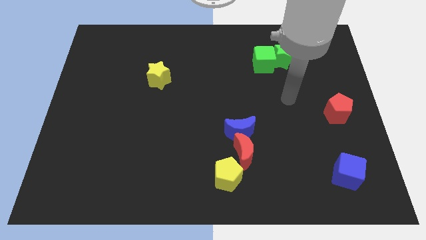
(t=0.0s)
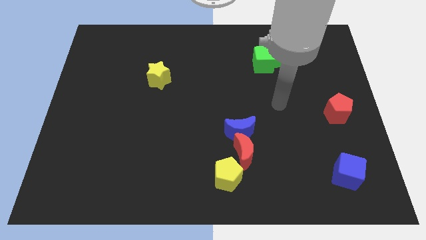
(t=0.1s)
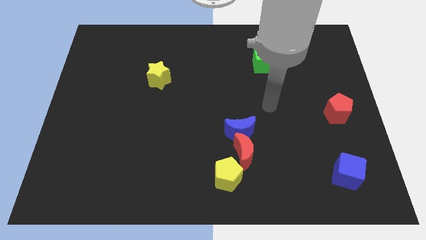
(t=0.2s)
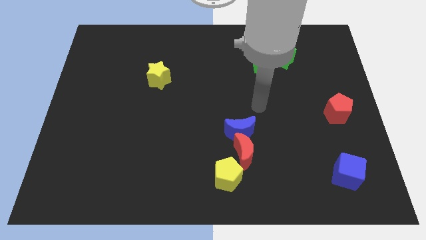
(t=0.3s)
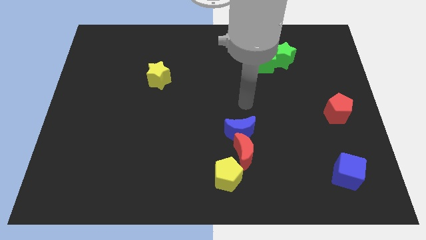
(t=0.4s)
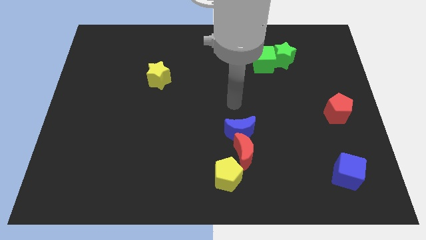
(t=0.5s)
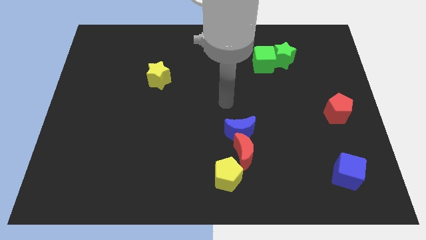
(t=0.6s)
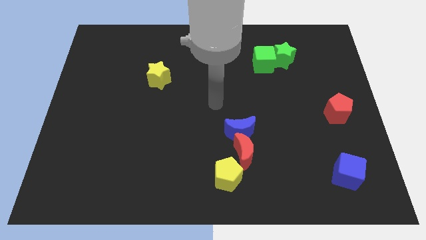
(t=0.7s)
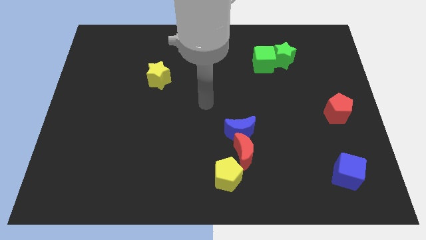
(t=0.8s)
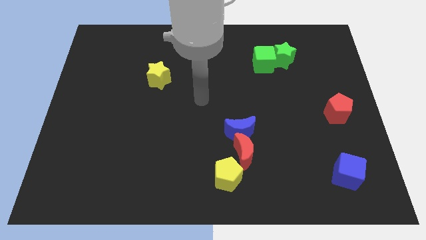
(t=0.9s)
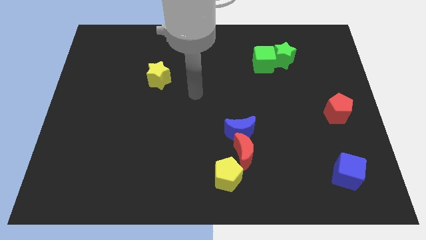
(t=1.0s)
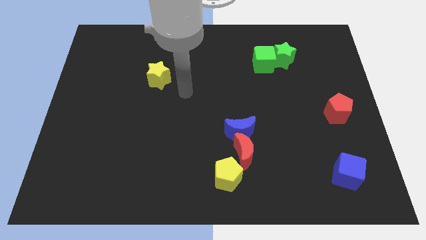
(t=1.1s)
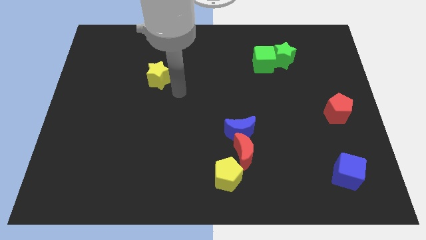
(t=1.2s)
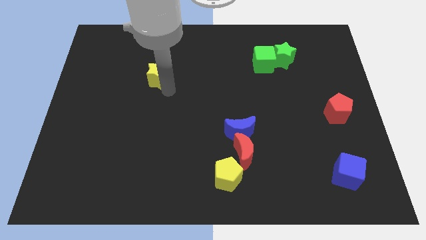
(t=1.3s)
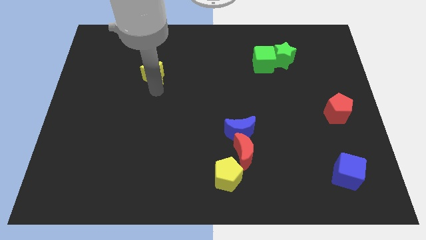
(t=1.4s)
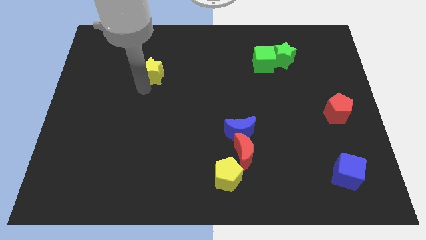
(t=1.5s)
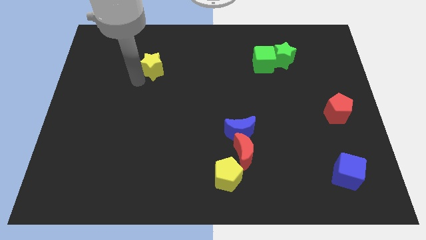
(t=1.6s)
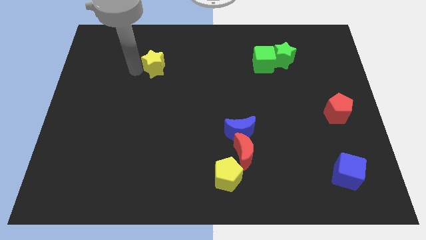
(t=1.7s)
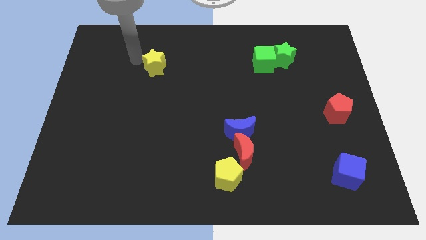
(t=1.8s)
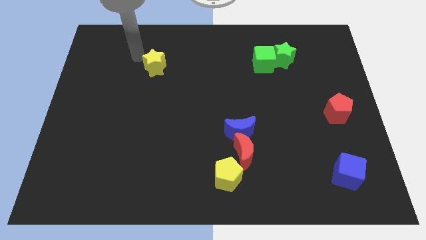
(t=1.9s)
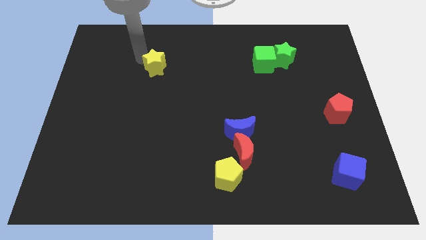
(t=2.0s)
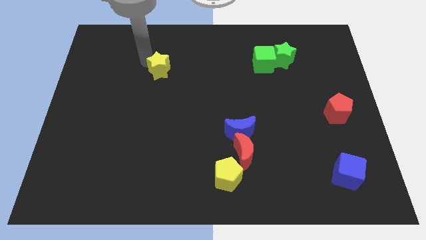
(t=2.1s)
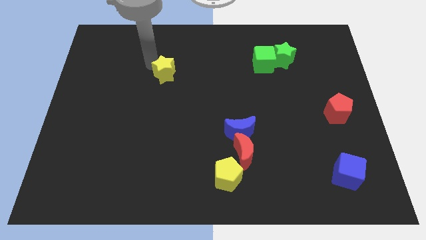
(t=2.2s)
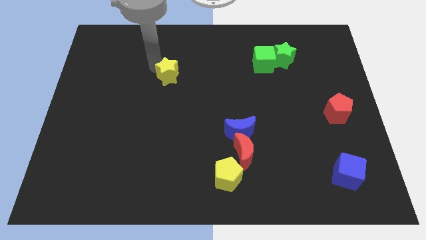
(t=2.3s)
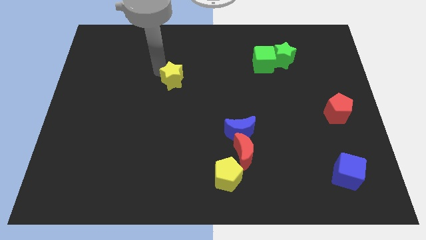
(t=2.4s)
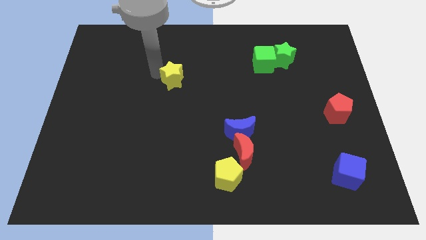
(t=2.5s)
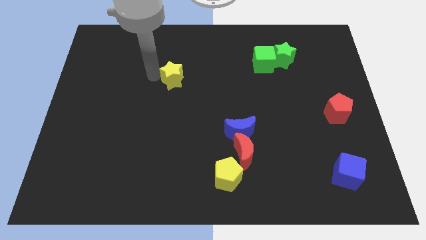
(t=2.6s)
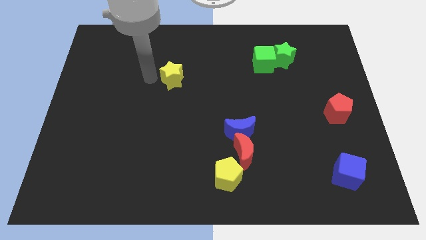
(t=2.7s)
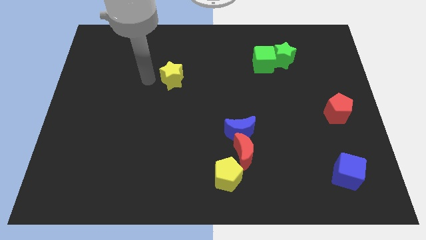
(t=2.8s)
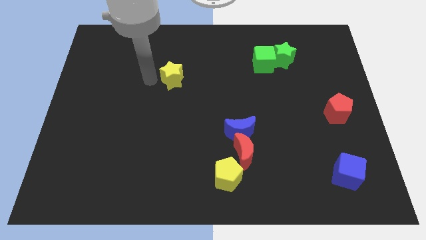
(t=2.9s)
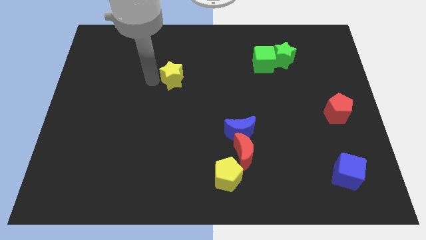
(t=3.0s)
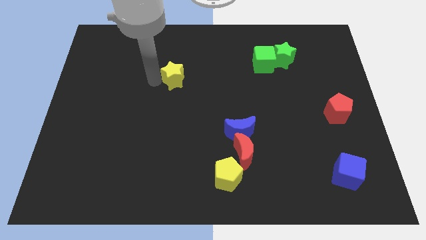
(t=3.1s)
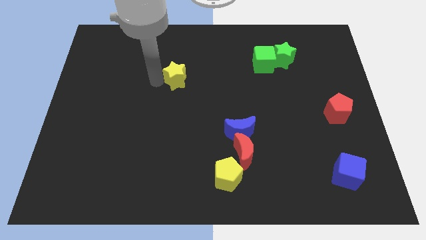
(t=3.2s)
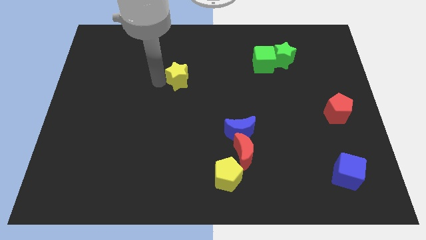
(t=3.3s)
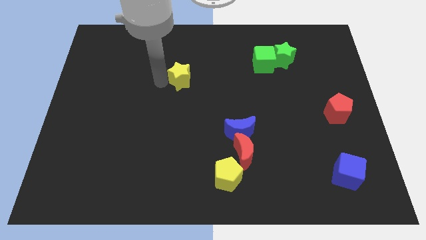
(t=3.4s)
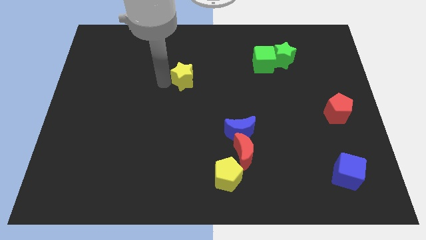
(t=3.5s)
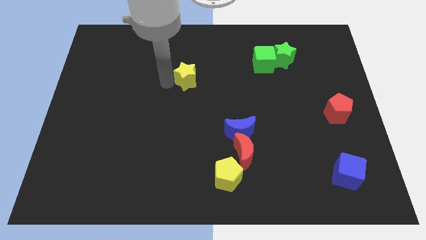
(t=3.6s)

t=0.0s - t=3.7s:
move the yellow star somewhat right

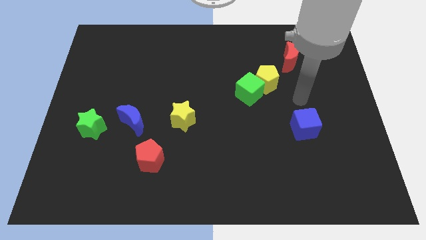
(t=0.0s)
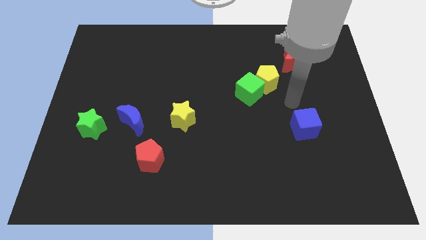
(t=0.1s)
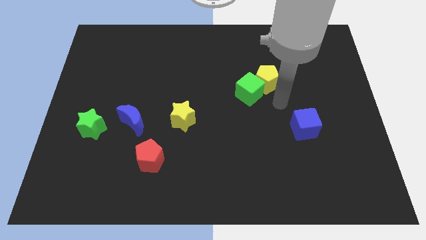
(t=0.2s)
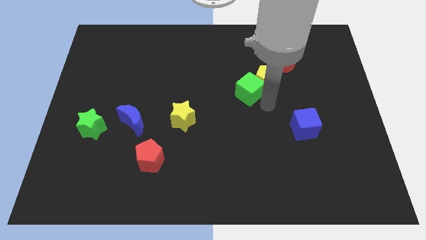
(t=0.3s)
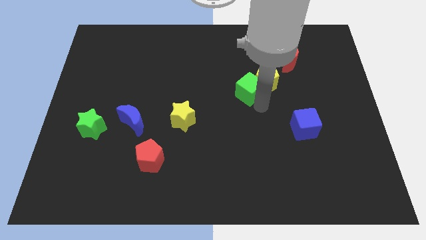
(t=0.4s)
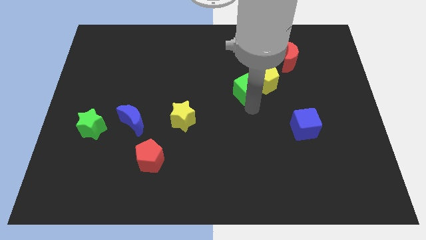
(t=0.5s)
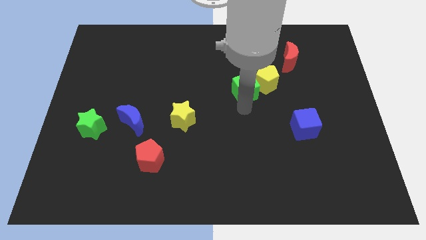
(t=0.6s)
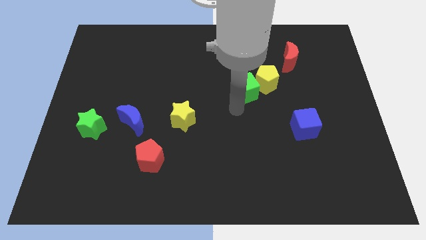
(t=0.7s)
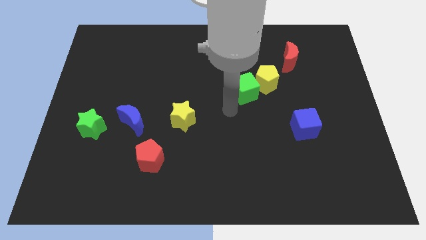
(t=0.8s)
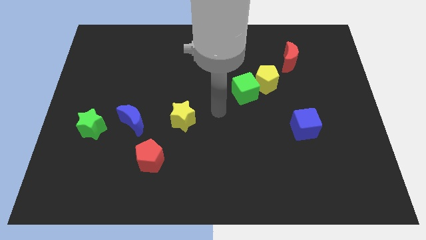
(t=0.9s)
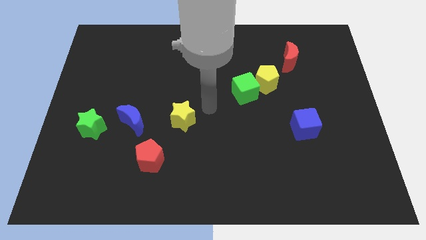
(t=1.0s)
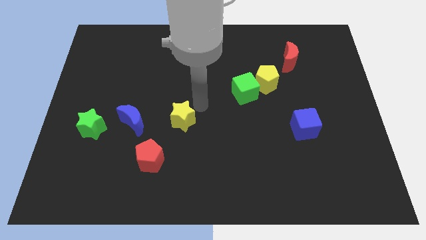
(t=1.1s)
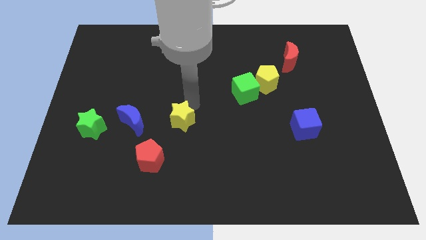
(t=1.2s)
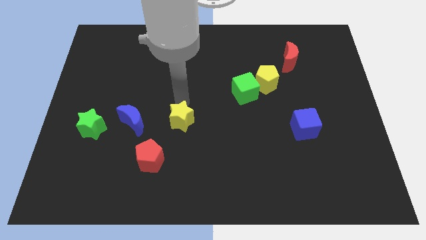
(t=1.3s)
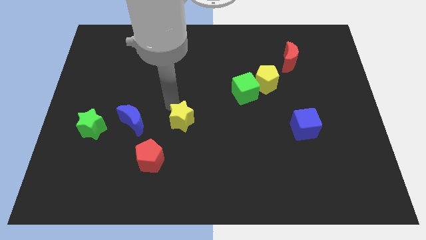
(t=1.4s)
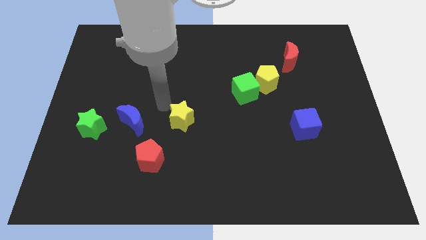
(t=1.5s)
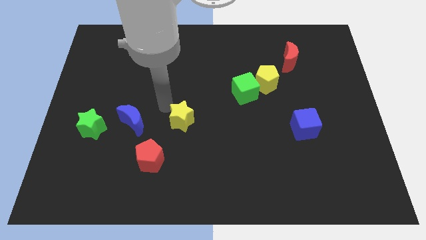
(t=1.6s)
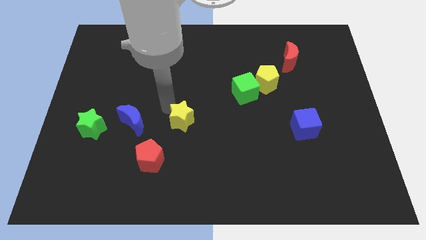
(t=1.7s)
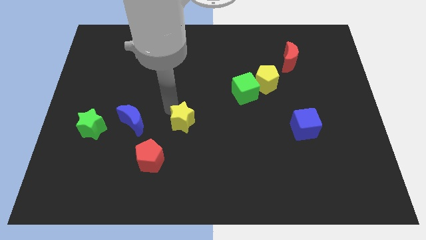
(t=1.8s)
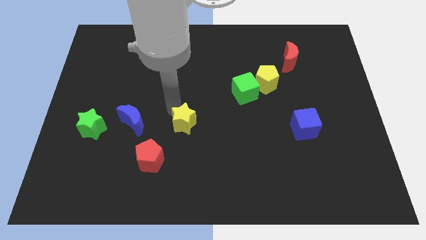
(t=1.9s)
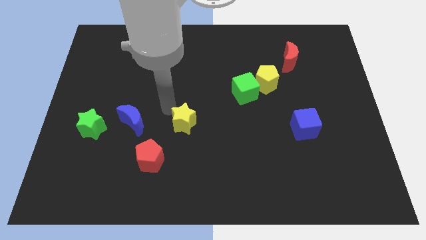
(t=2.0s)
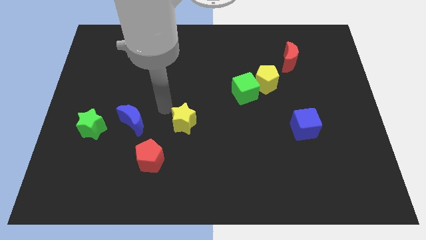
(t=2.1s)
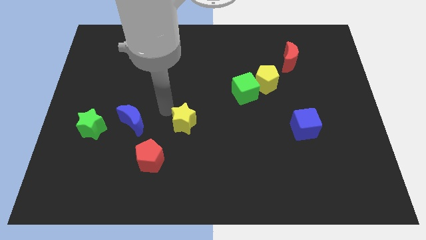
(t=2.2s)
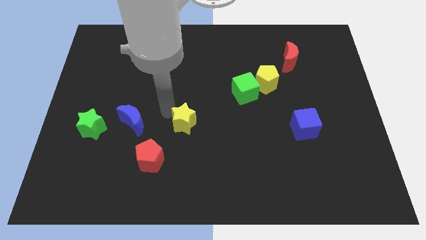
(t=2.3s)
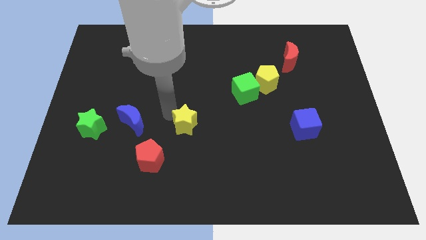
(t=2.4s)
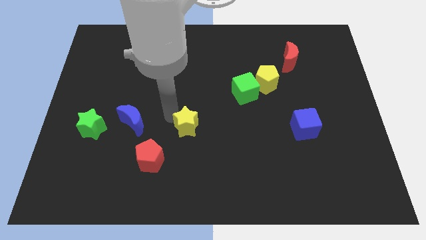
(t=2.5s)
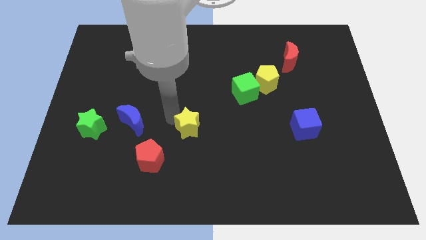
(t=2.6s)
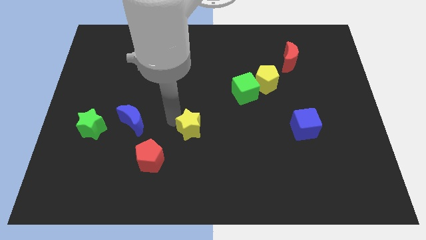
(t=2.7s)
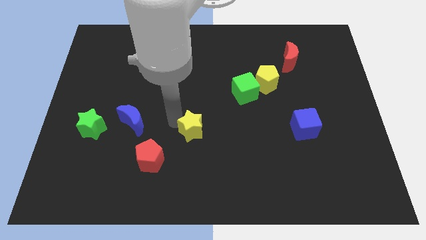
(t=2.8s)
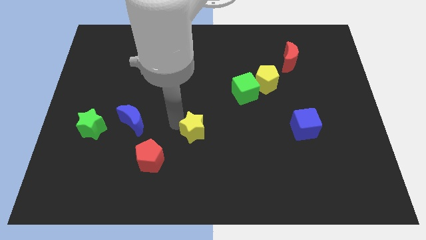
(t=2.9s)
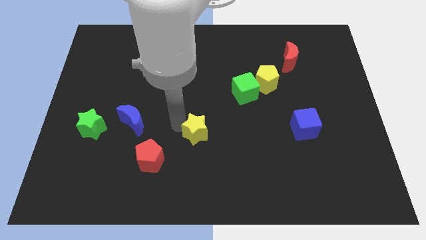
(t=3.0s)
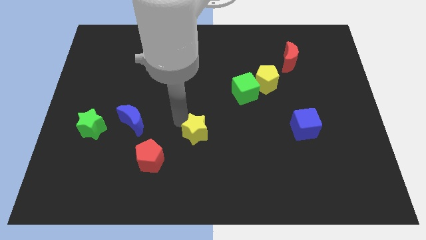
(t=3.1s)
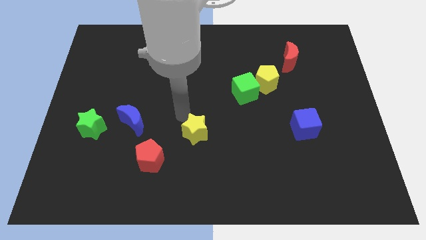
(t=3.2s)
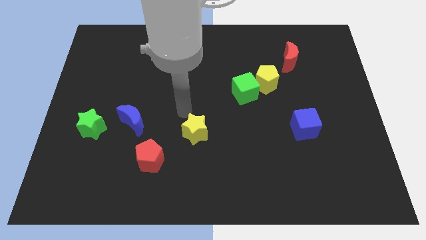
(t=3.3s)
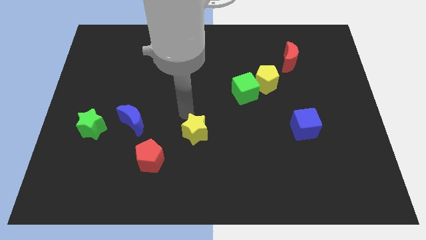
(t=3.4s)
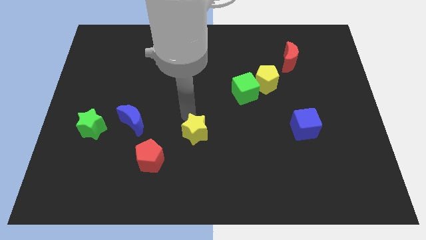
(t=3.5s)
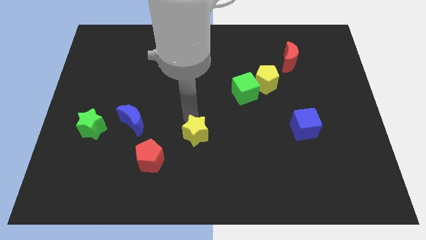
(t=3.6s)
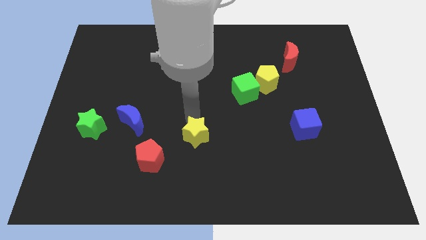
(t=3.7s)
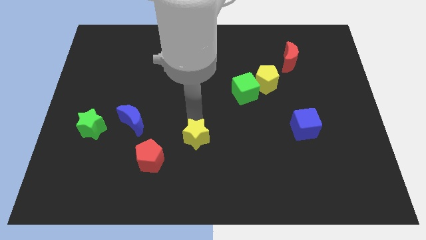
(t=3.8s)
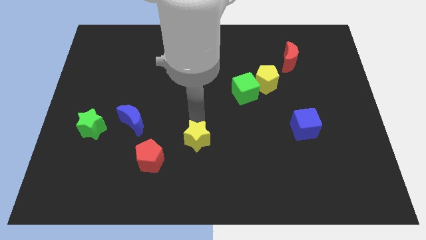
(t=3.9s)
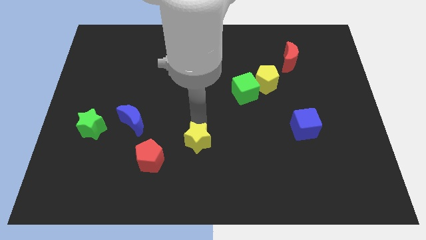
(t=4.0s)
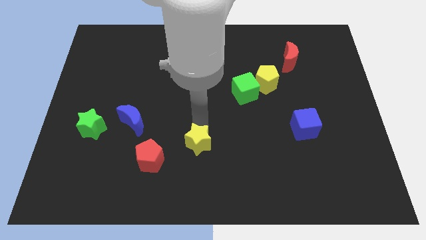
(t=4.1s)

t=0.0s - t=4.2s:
slightly slide the yellow star down and right diagonally

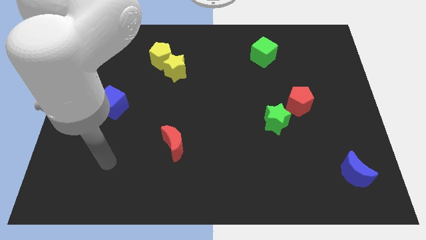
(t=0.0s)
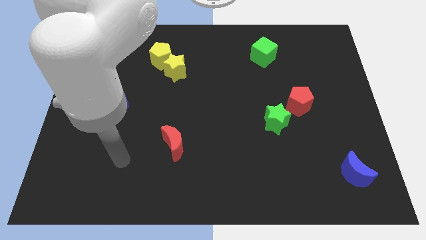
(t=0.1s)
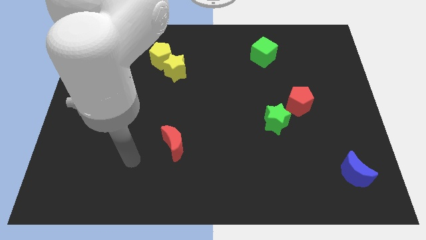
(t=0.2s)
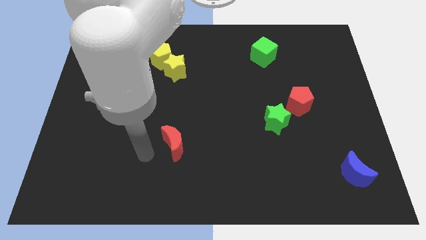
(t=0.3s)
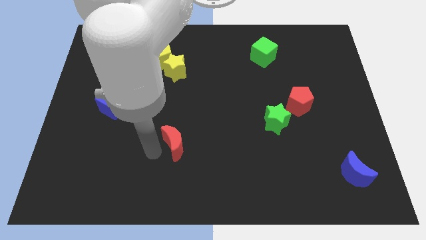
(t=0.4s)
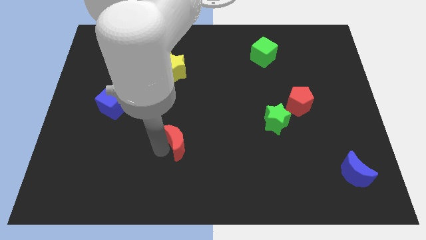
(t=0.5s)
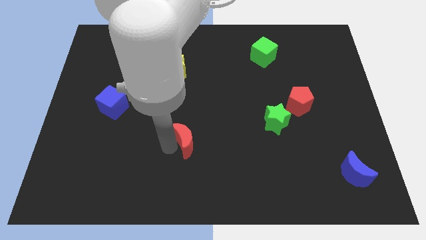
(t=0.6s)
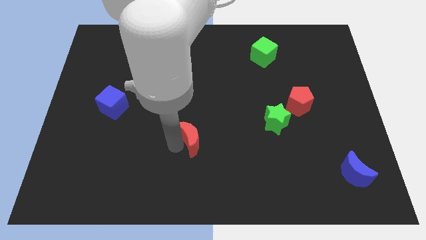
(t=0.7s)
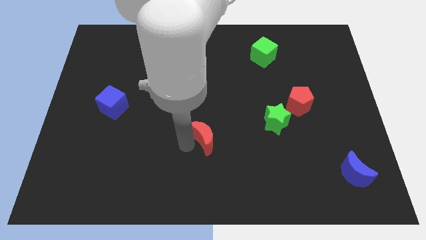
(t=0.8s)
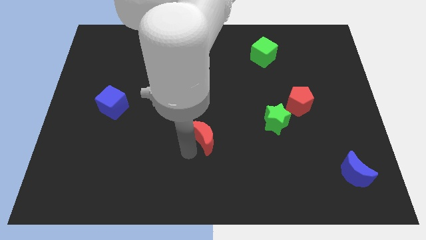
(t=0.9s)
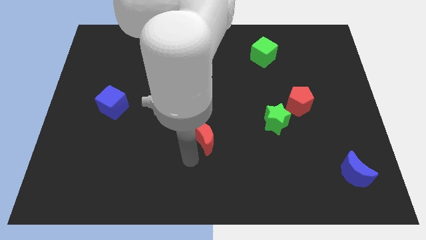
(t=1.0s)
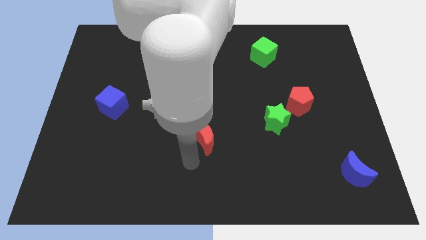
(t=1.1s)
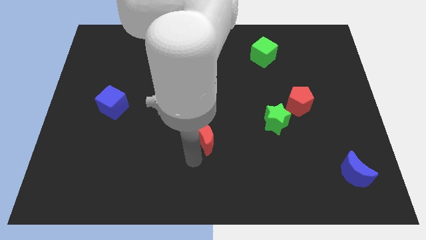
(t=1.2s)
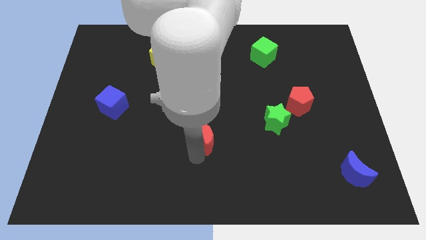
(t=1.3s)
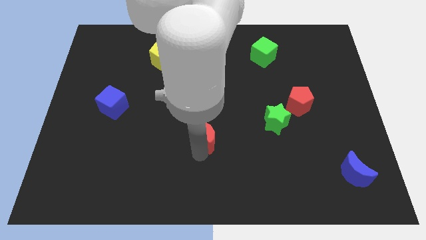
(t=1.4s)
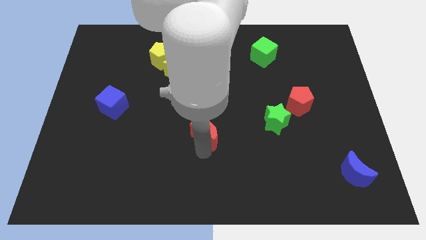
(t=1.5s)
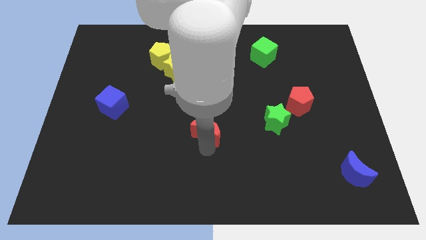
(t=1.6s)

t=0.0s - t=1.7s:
slightly move the red moon up and right diagonally
